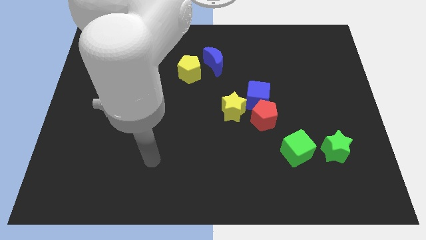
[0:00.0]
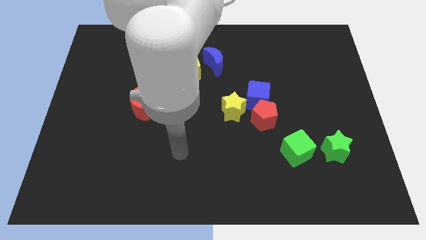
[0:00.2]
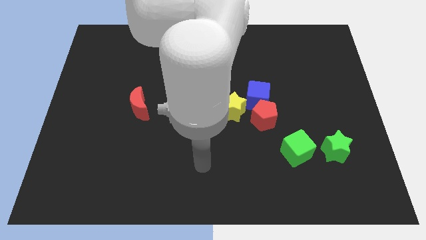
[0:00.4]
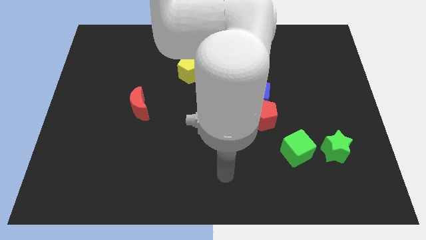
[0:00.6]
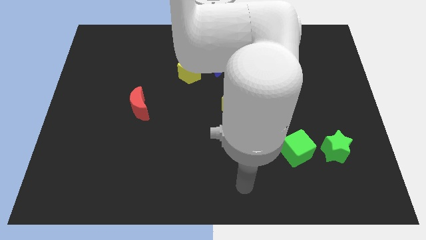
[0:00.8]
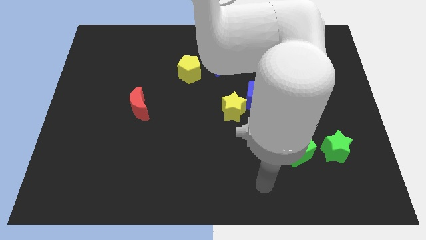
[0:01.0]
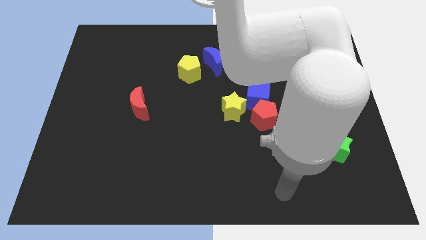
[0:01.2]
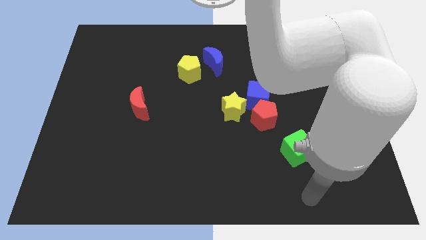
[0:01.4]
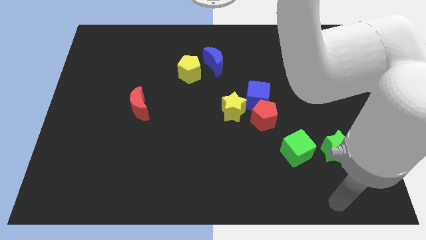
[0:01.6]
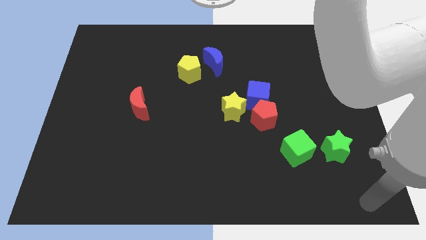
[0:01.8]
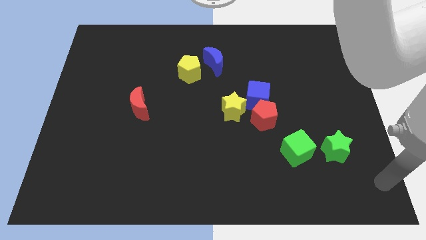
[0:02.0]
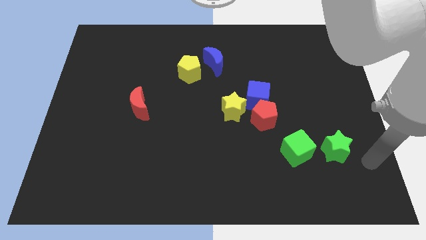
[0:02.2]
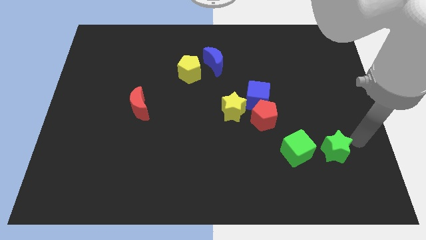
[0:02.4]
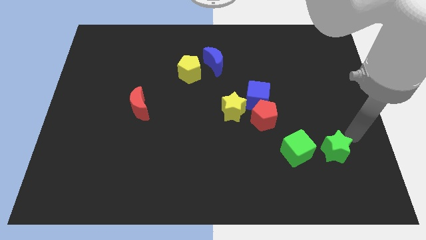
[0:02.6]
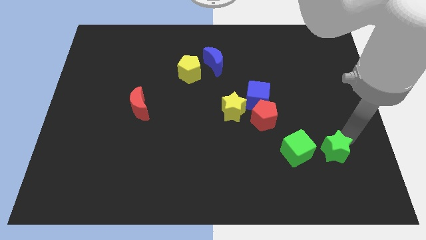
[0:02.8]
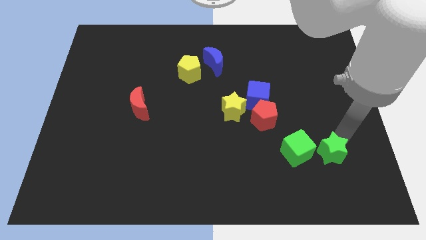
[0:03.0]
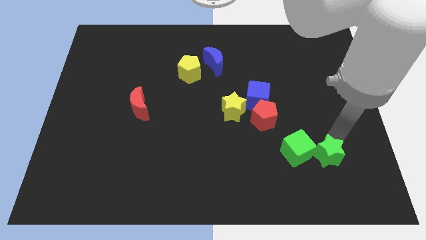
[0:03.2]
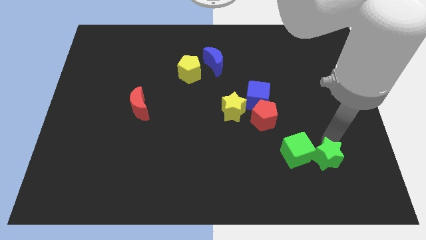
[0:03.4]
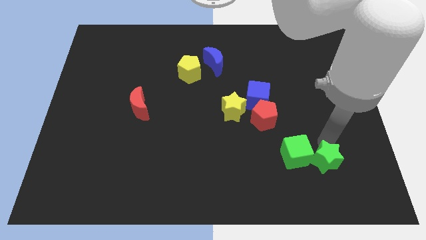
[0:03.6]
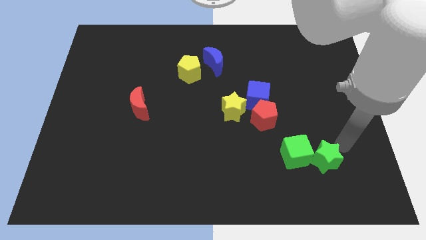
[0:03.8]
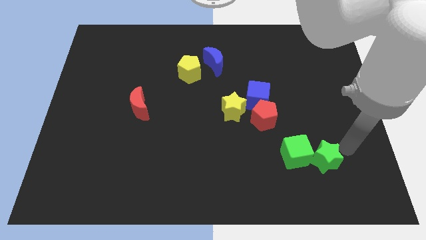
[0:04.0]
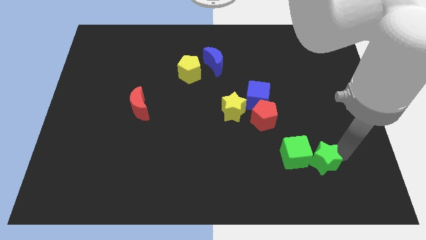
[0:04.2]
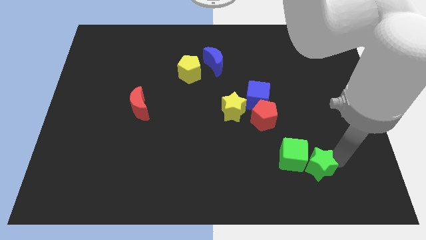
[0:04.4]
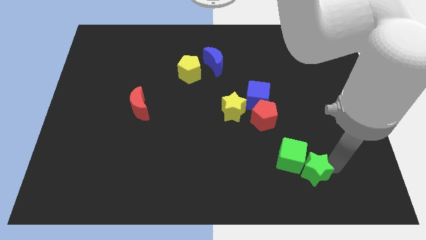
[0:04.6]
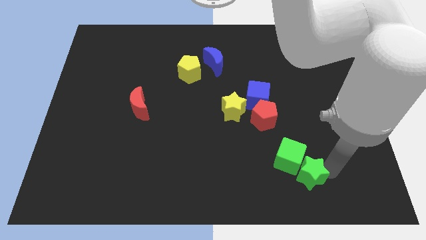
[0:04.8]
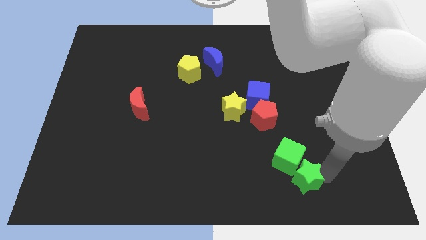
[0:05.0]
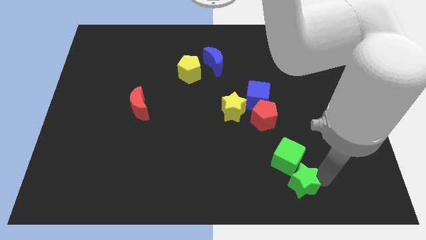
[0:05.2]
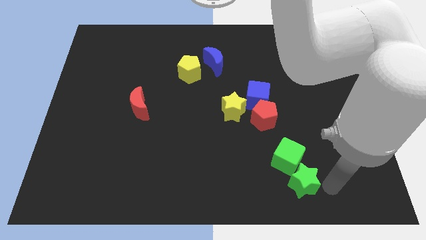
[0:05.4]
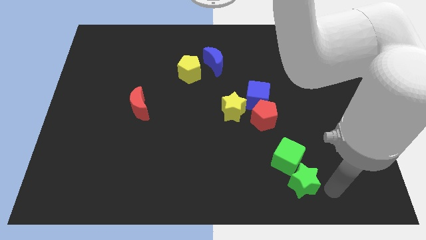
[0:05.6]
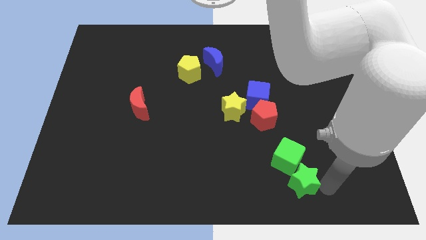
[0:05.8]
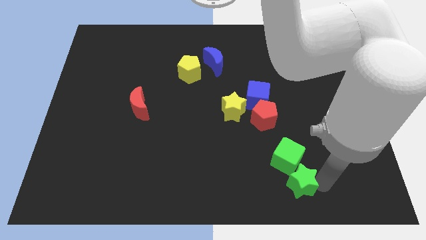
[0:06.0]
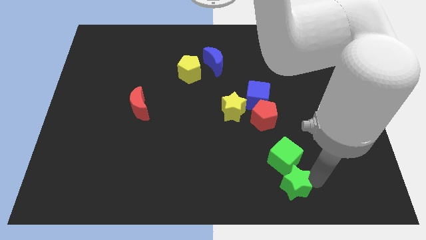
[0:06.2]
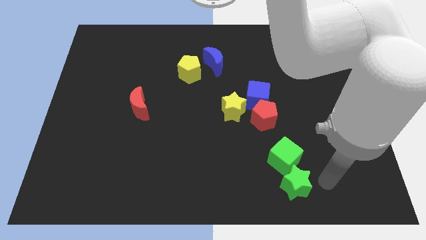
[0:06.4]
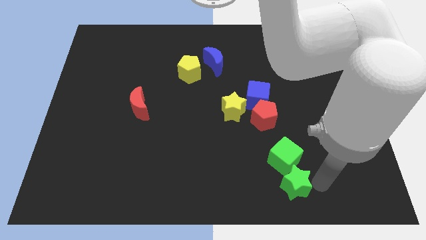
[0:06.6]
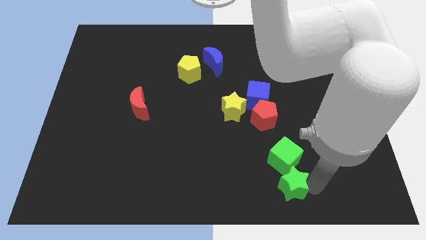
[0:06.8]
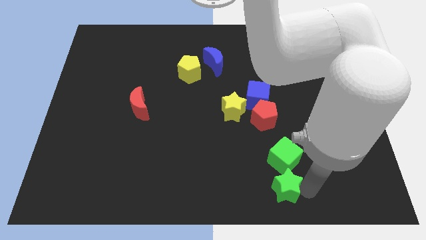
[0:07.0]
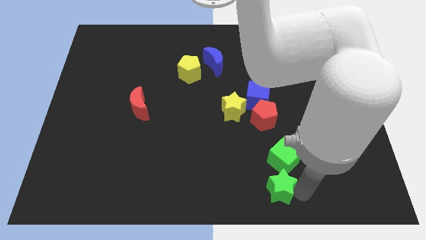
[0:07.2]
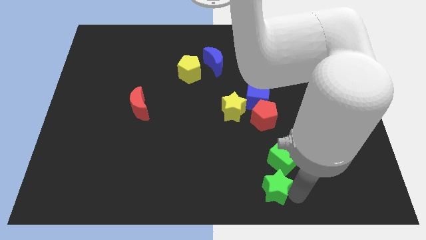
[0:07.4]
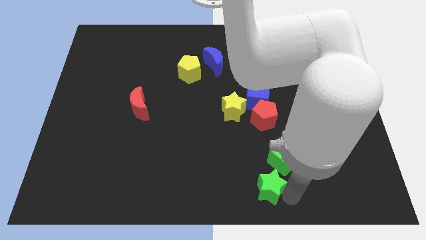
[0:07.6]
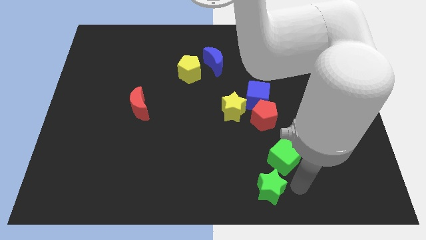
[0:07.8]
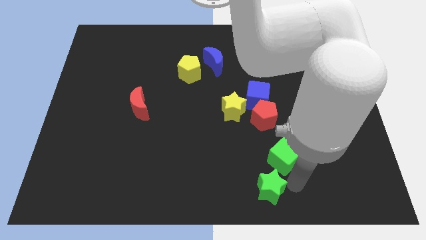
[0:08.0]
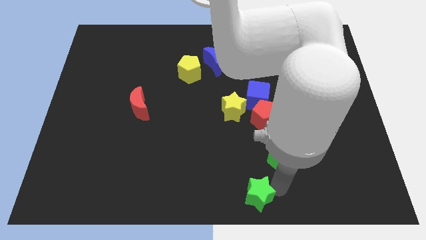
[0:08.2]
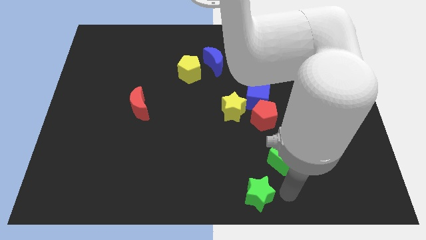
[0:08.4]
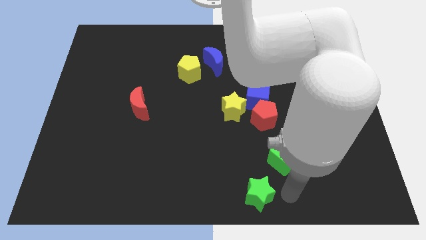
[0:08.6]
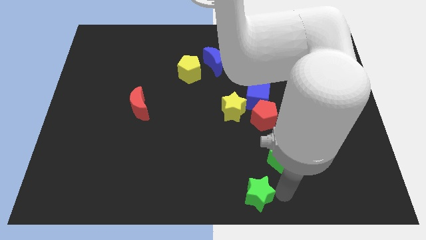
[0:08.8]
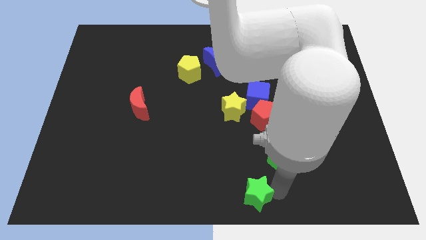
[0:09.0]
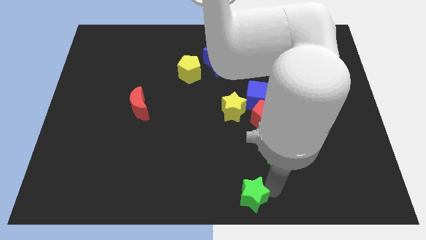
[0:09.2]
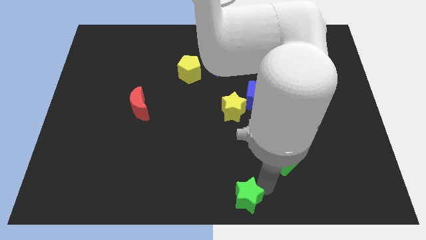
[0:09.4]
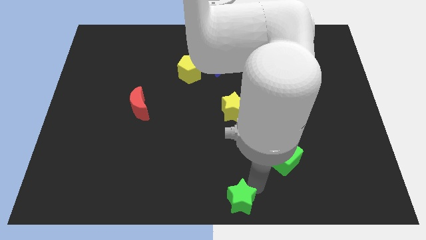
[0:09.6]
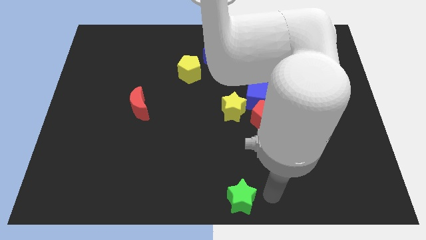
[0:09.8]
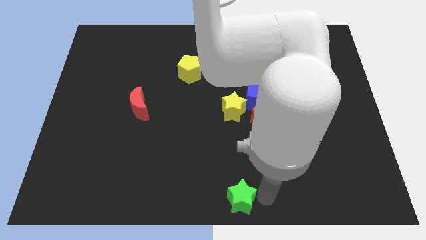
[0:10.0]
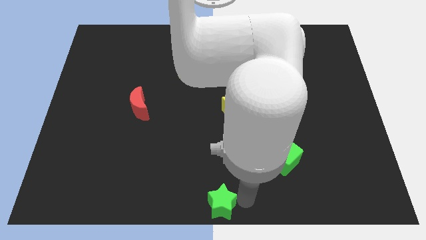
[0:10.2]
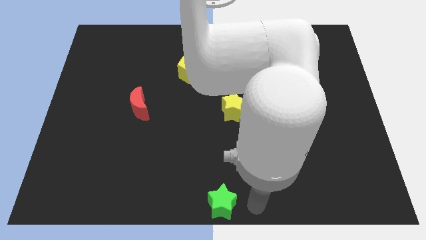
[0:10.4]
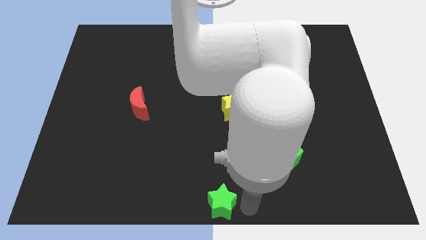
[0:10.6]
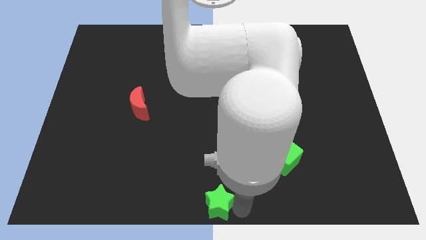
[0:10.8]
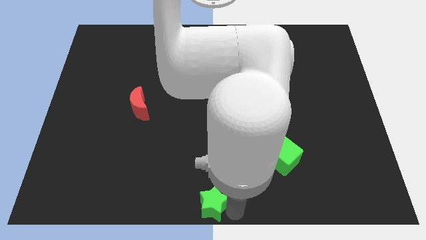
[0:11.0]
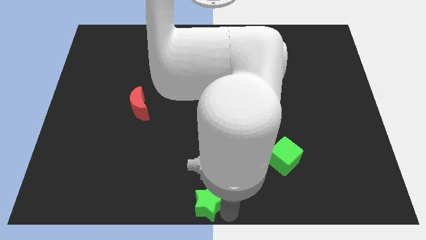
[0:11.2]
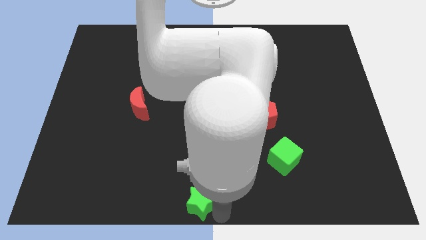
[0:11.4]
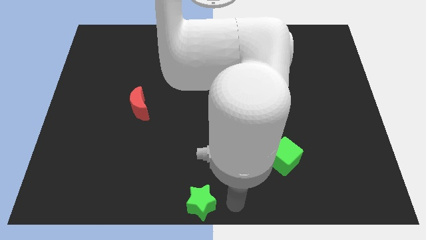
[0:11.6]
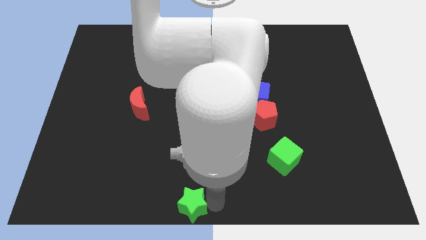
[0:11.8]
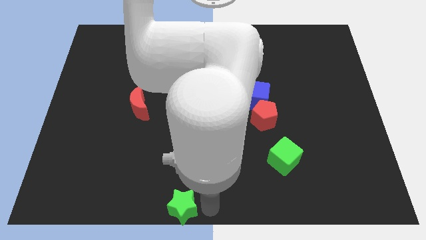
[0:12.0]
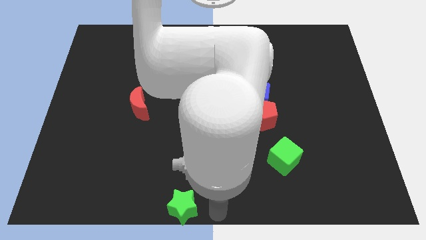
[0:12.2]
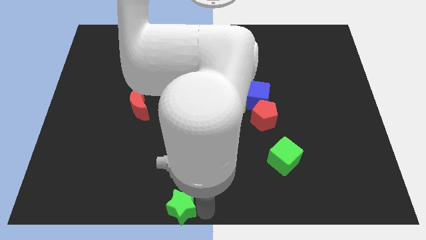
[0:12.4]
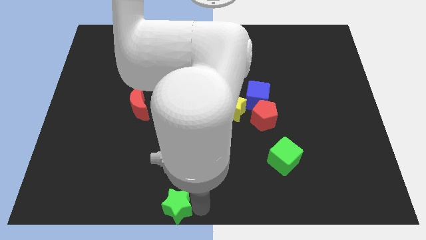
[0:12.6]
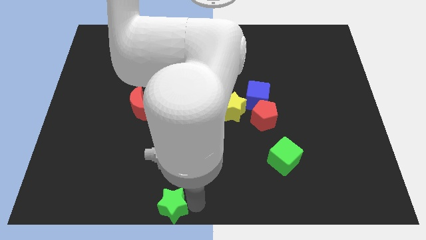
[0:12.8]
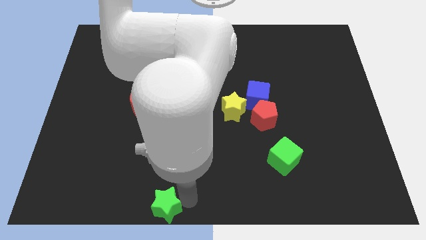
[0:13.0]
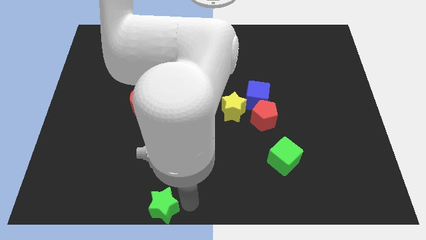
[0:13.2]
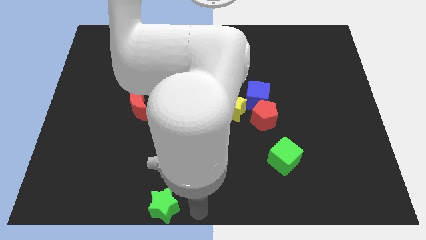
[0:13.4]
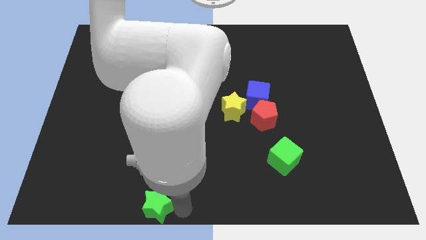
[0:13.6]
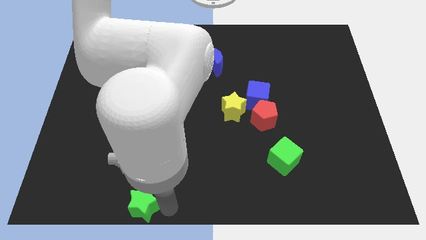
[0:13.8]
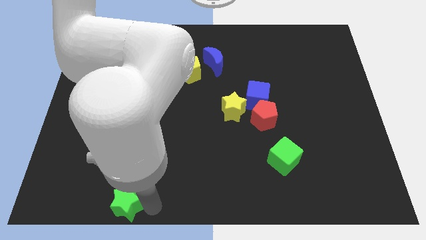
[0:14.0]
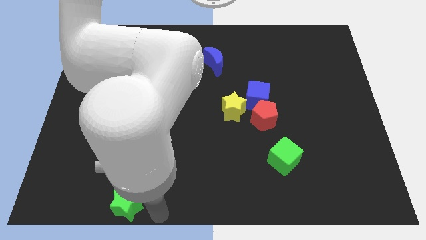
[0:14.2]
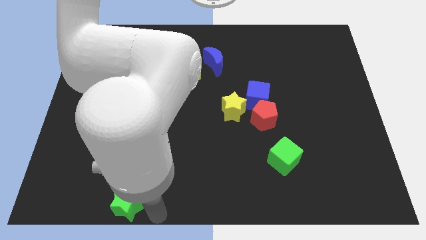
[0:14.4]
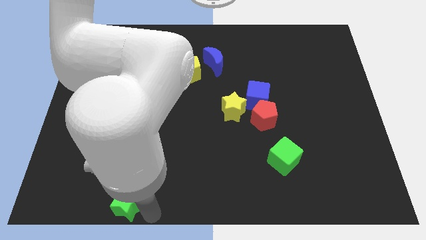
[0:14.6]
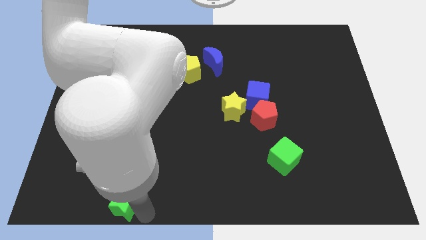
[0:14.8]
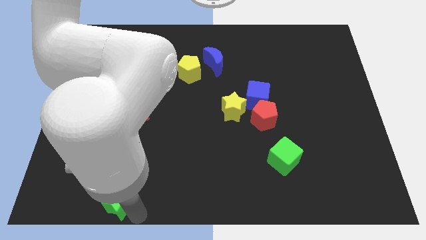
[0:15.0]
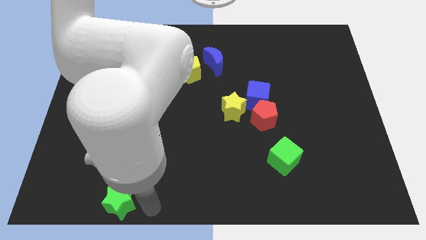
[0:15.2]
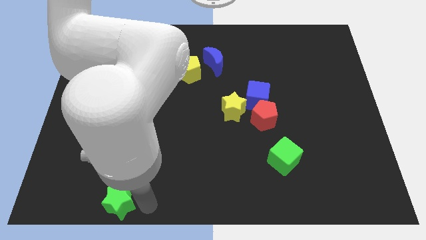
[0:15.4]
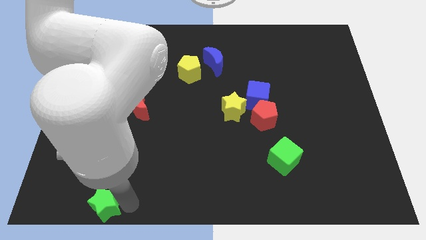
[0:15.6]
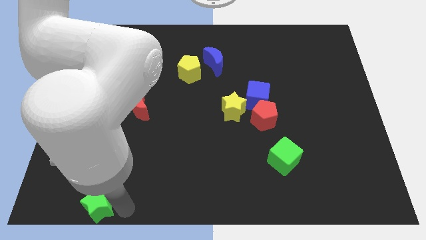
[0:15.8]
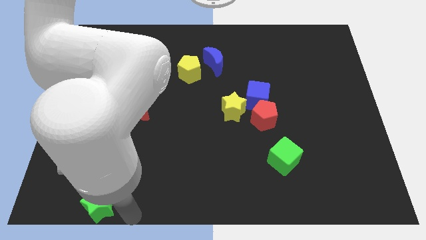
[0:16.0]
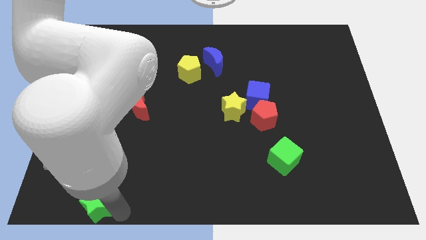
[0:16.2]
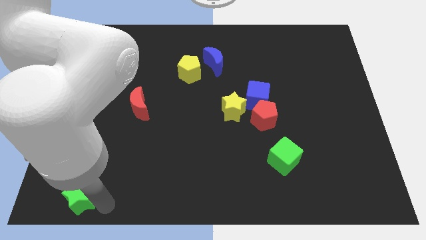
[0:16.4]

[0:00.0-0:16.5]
push the green star to the bottom left corner
